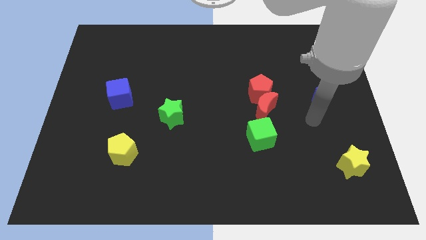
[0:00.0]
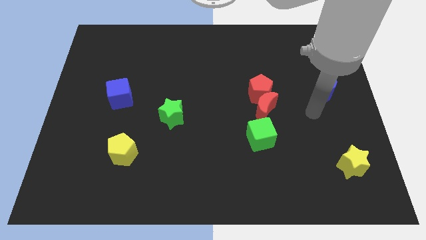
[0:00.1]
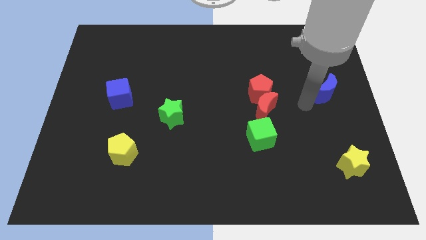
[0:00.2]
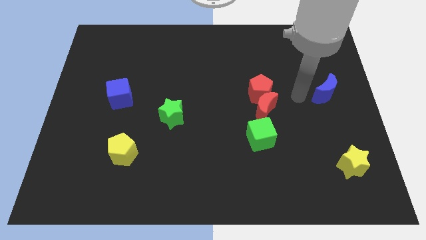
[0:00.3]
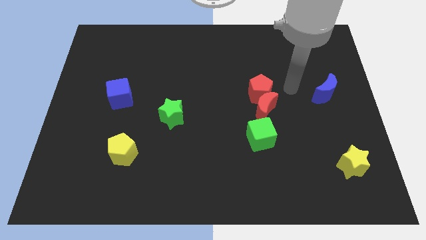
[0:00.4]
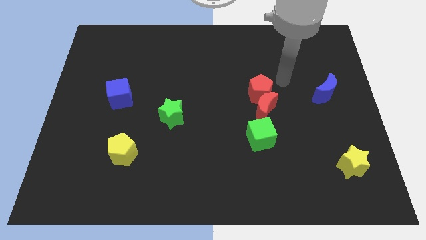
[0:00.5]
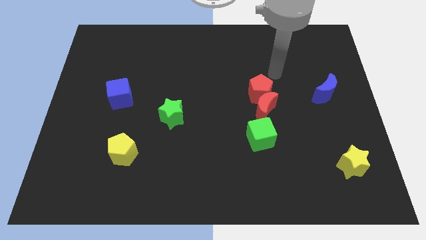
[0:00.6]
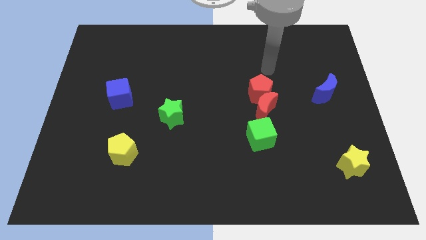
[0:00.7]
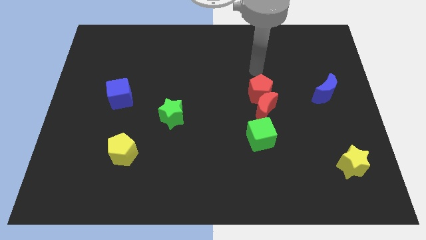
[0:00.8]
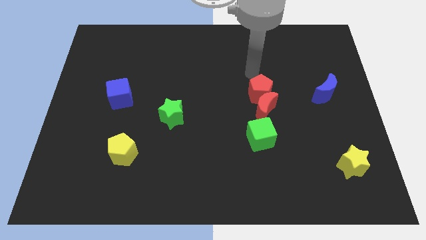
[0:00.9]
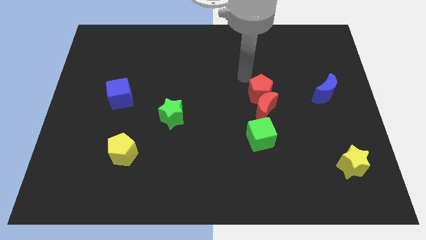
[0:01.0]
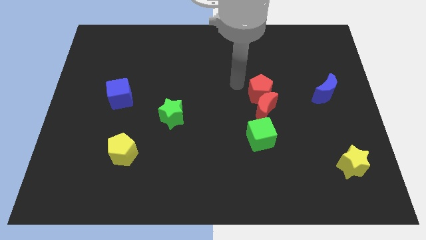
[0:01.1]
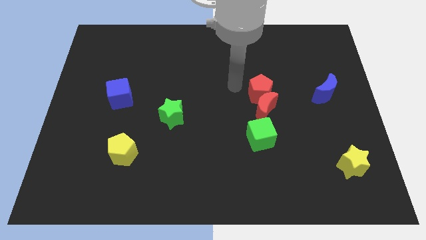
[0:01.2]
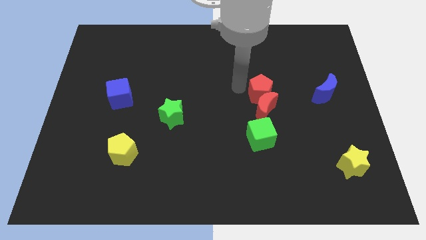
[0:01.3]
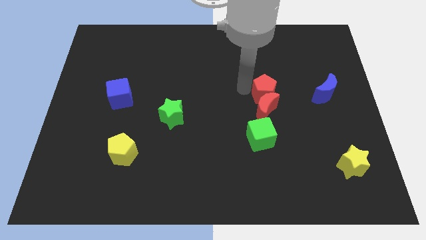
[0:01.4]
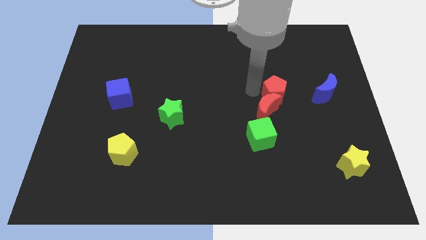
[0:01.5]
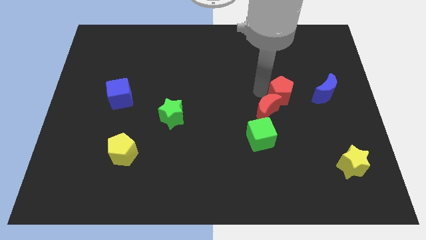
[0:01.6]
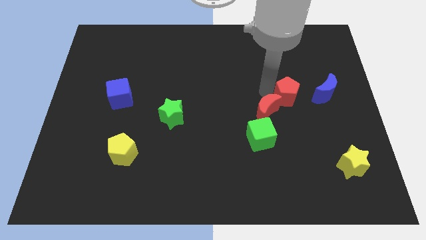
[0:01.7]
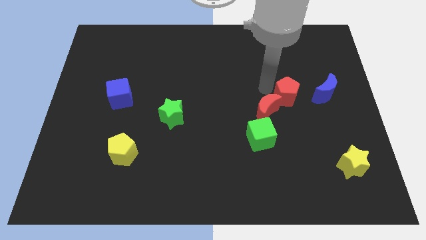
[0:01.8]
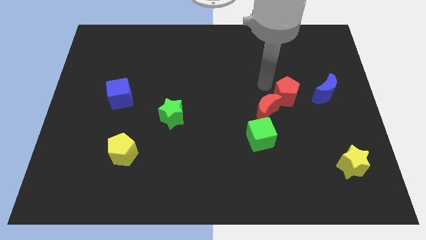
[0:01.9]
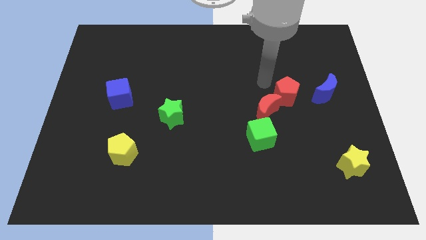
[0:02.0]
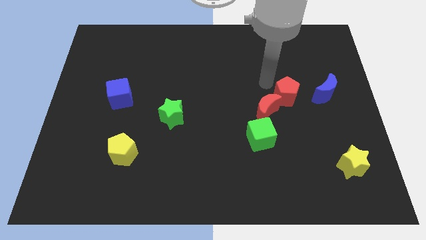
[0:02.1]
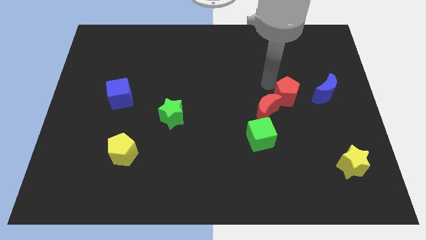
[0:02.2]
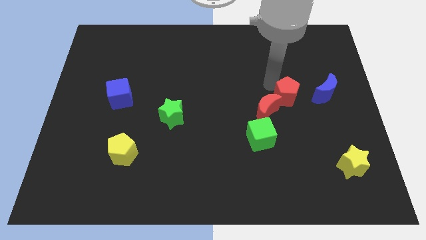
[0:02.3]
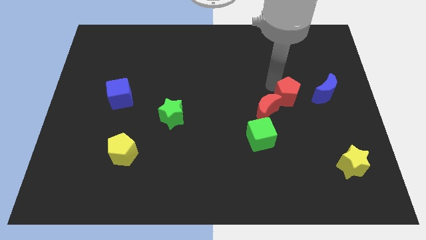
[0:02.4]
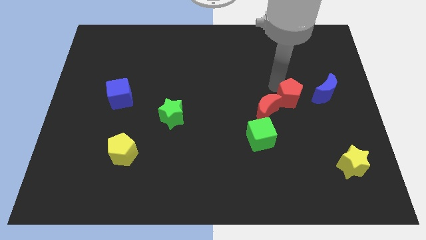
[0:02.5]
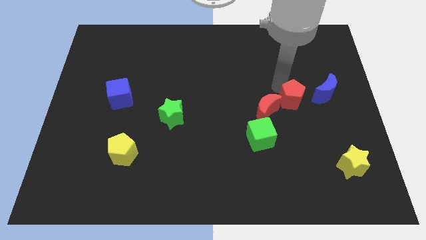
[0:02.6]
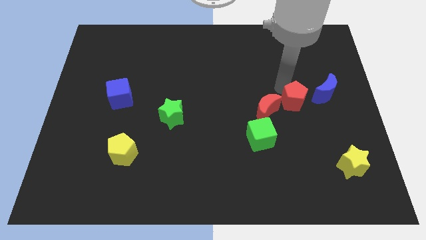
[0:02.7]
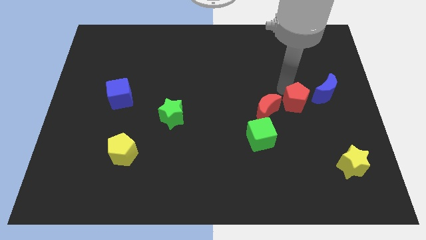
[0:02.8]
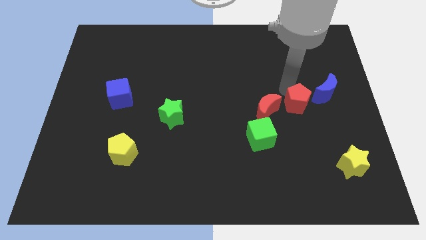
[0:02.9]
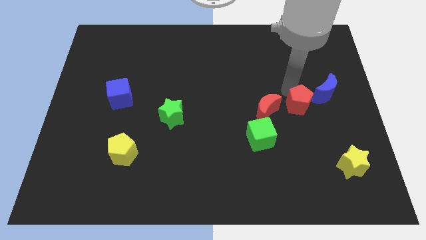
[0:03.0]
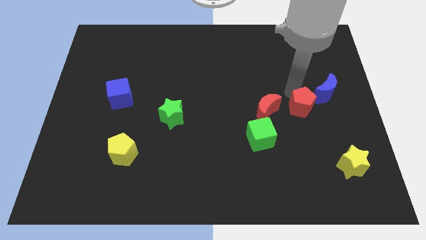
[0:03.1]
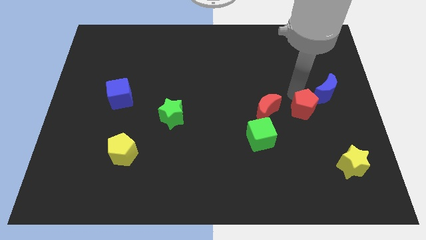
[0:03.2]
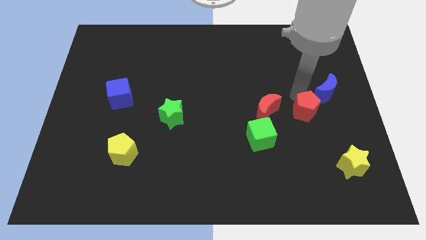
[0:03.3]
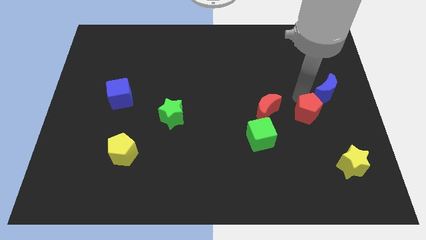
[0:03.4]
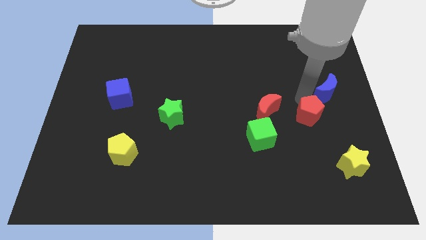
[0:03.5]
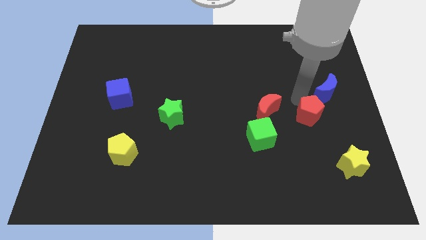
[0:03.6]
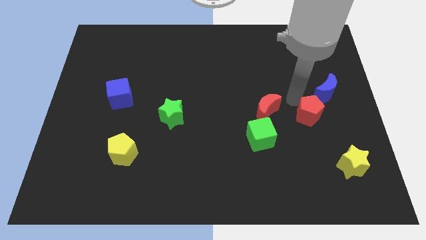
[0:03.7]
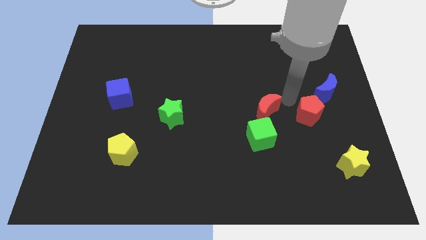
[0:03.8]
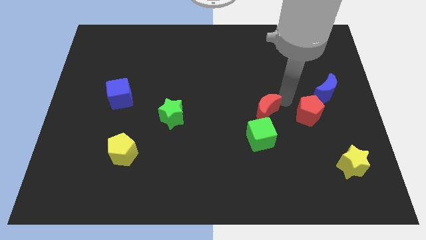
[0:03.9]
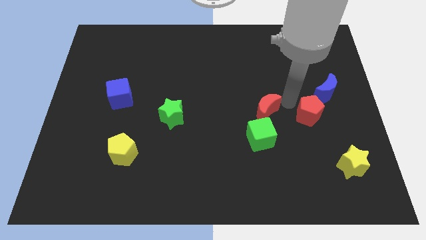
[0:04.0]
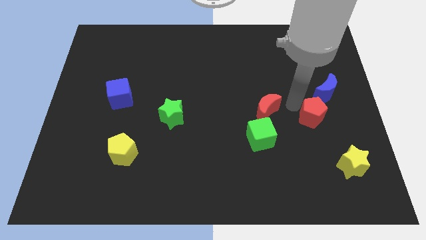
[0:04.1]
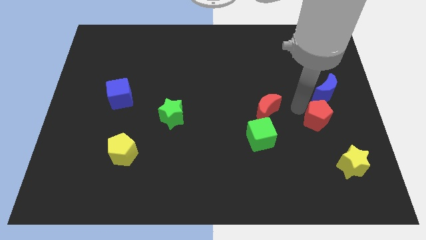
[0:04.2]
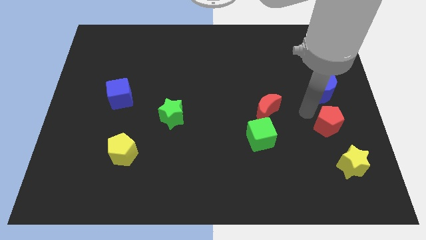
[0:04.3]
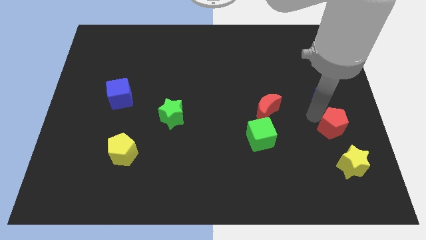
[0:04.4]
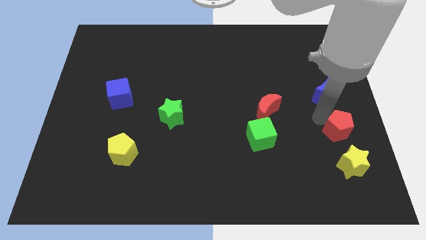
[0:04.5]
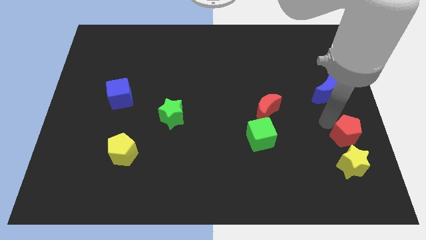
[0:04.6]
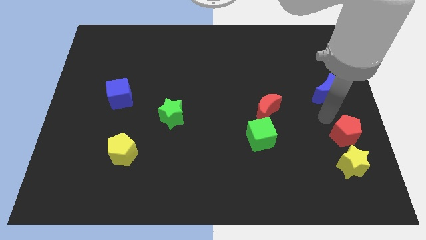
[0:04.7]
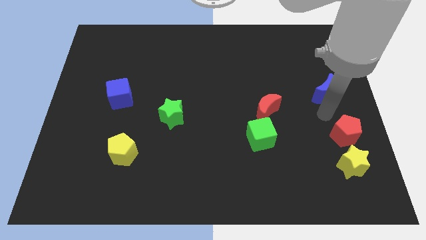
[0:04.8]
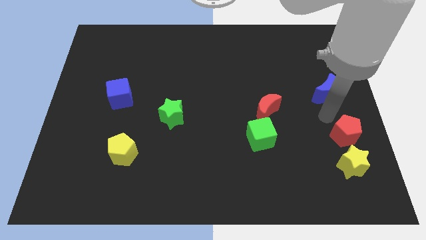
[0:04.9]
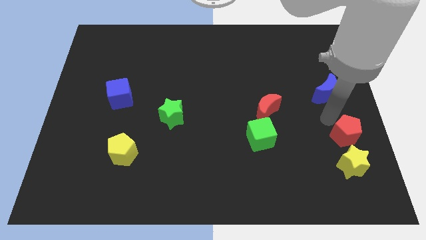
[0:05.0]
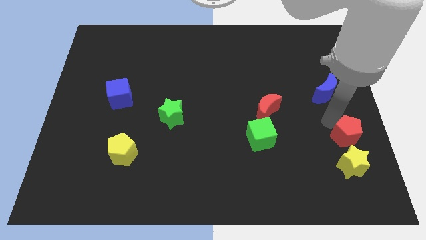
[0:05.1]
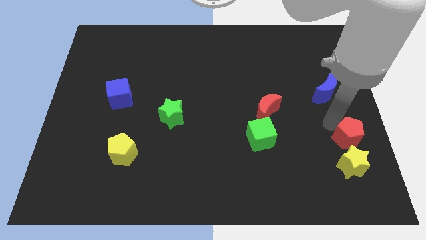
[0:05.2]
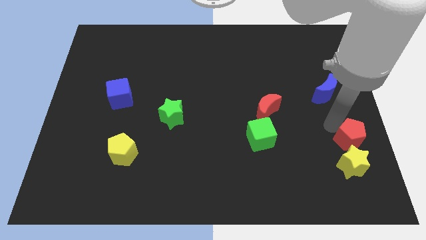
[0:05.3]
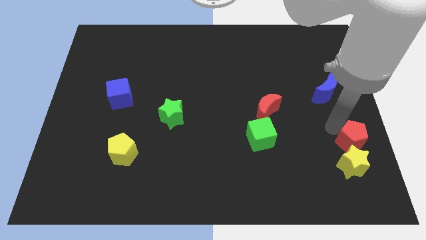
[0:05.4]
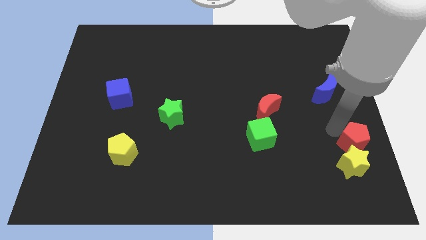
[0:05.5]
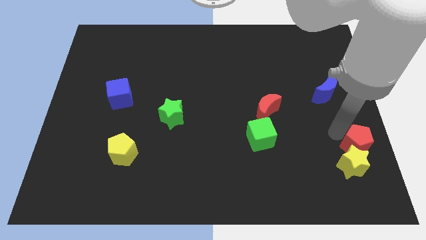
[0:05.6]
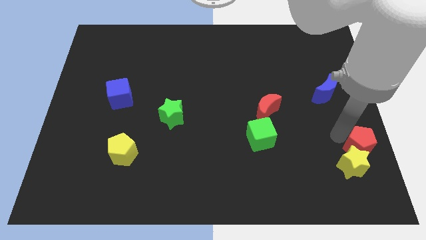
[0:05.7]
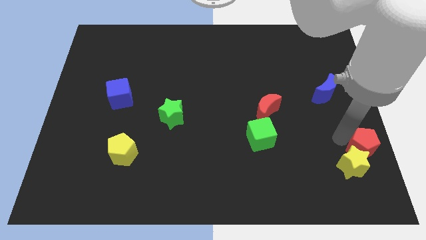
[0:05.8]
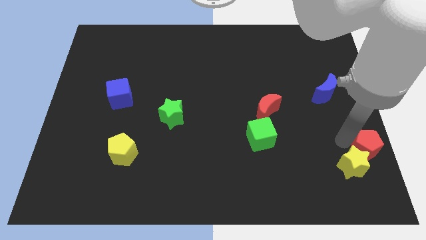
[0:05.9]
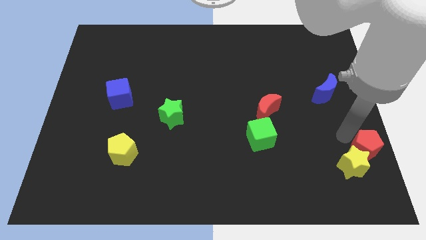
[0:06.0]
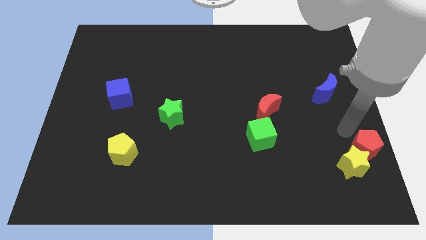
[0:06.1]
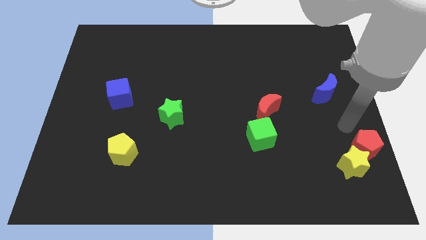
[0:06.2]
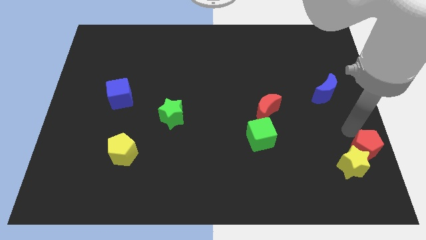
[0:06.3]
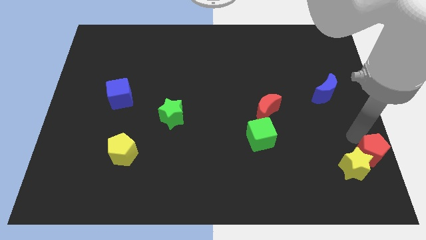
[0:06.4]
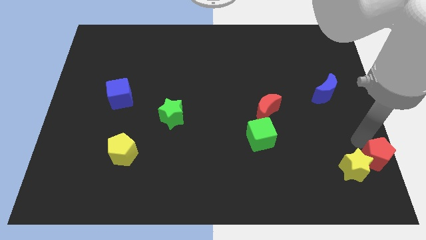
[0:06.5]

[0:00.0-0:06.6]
slide the red pentagon to the lower right corner

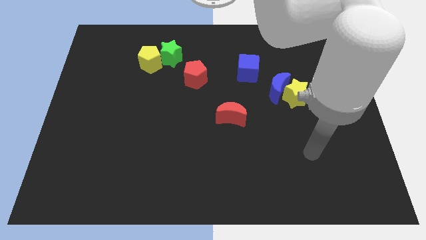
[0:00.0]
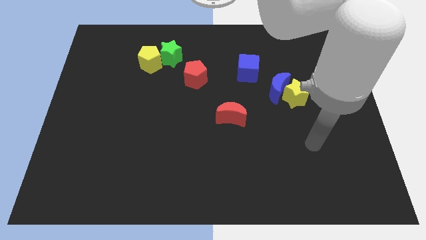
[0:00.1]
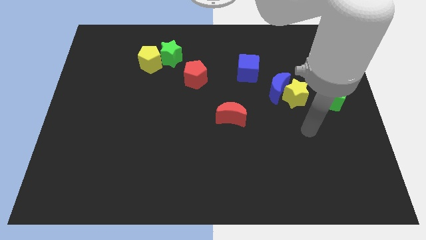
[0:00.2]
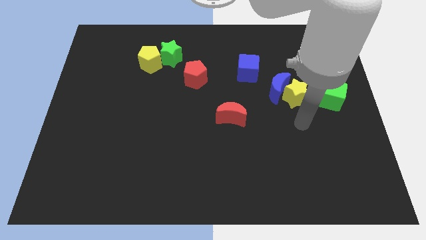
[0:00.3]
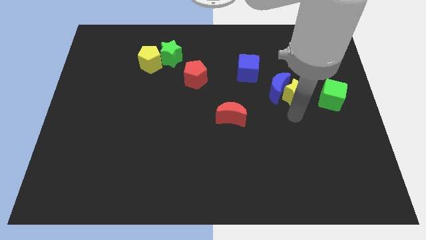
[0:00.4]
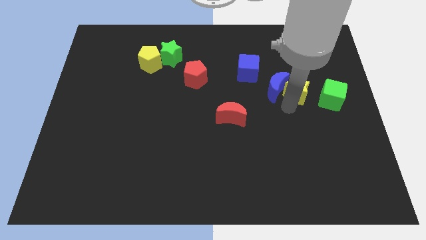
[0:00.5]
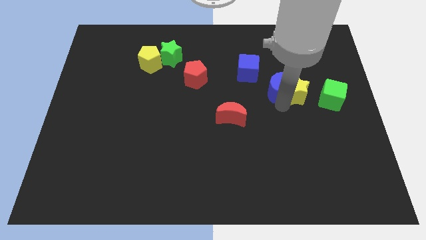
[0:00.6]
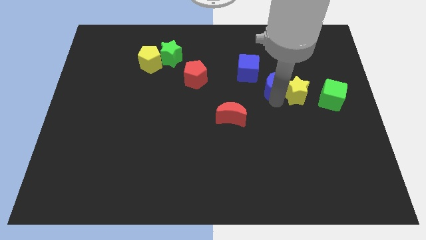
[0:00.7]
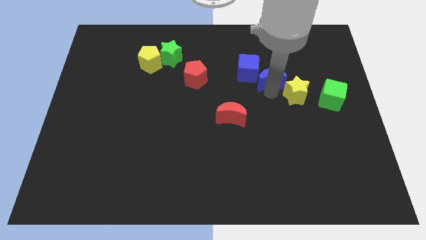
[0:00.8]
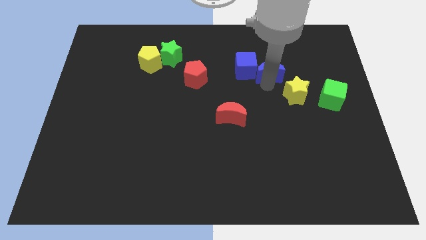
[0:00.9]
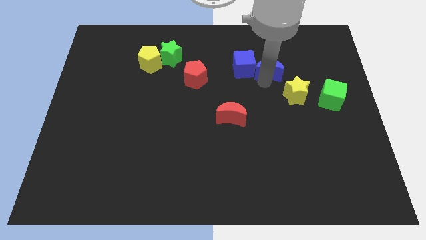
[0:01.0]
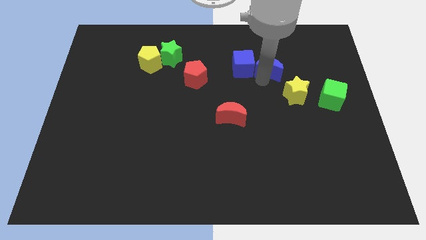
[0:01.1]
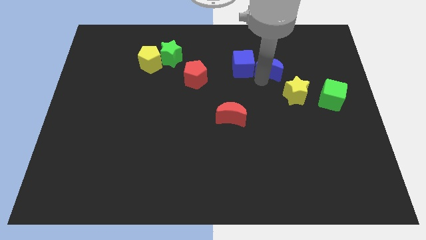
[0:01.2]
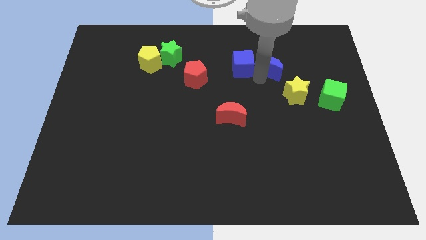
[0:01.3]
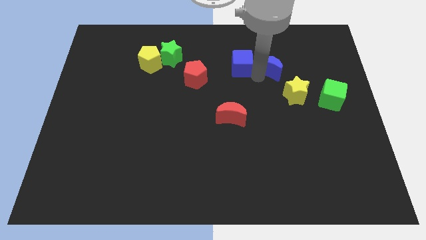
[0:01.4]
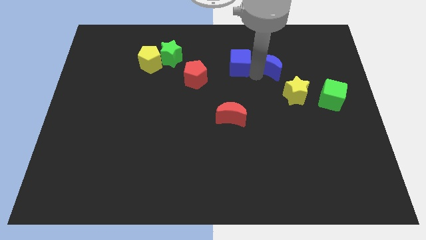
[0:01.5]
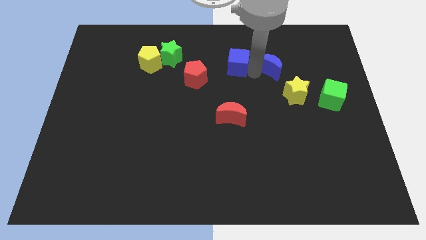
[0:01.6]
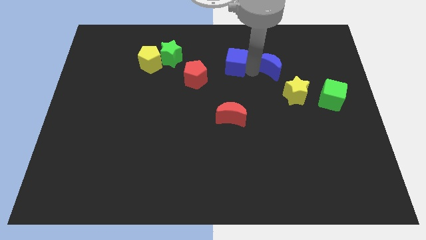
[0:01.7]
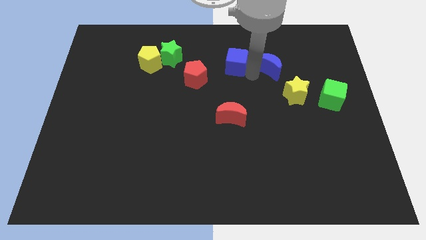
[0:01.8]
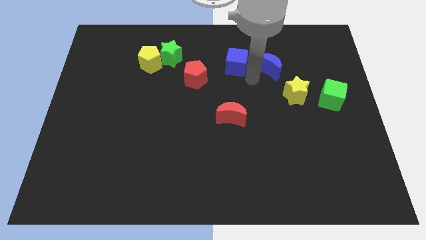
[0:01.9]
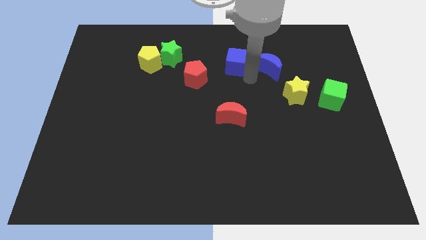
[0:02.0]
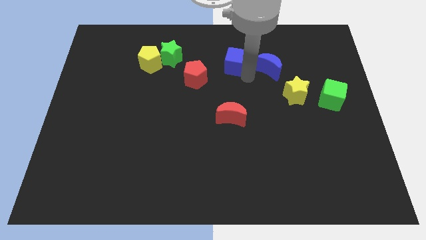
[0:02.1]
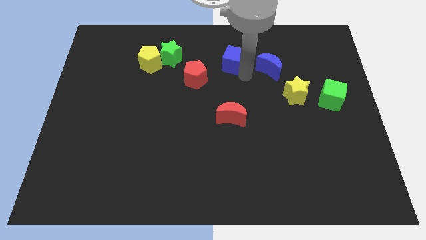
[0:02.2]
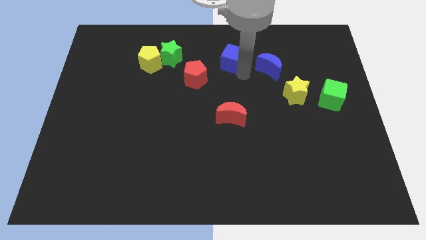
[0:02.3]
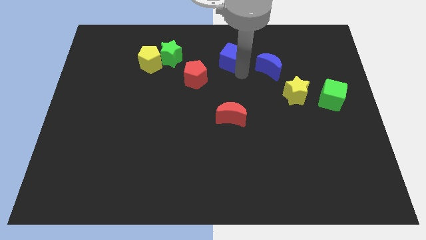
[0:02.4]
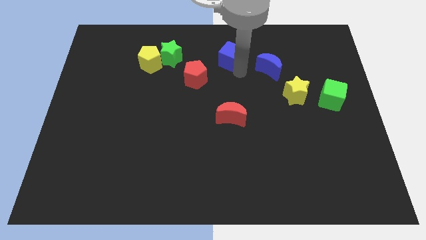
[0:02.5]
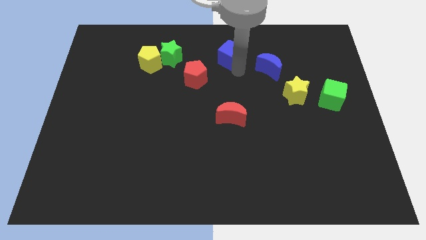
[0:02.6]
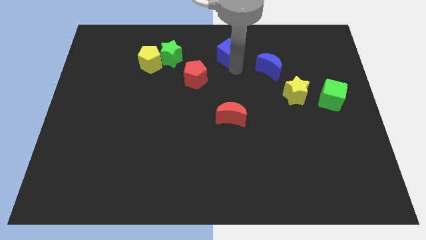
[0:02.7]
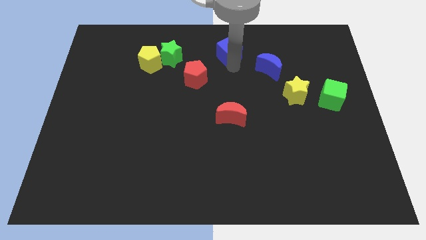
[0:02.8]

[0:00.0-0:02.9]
slide the blue cube to the top
